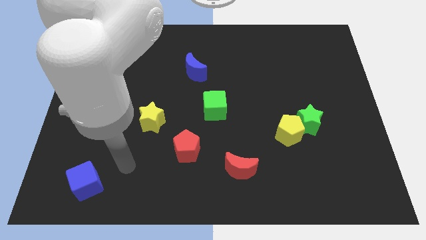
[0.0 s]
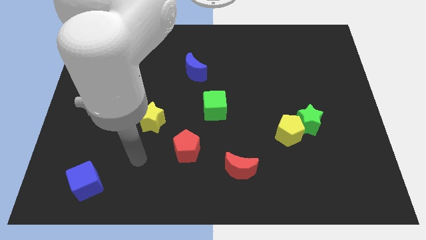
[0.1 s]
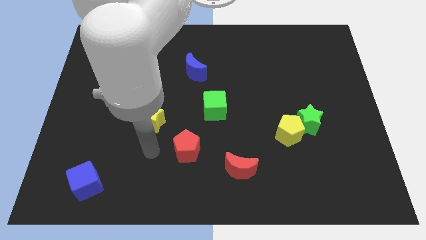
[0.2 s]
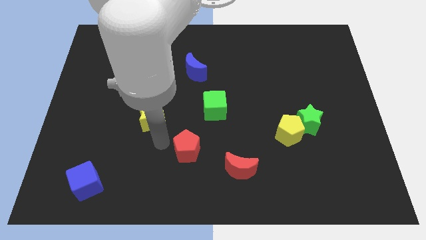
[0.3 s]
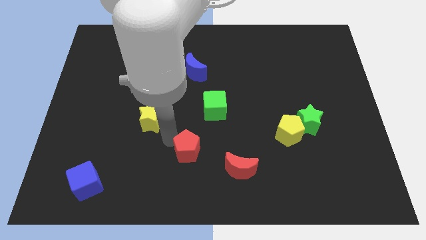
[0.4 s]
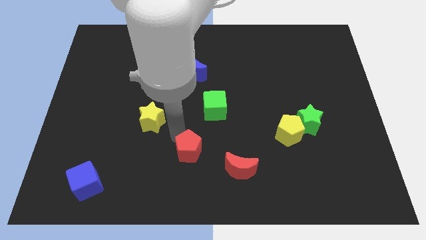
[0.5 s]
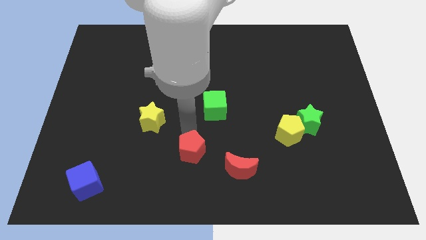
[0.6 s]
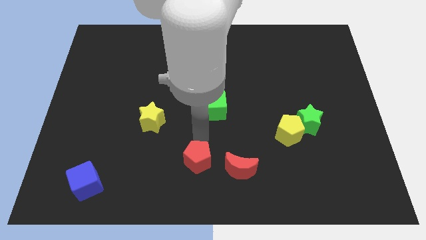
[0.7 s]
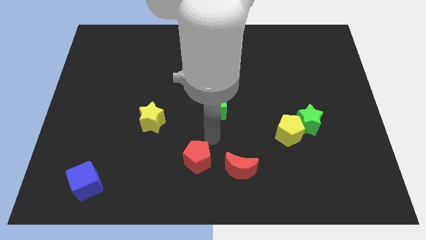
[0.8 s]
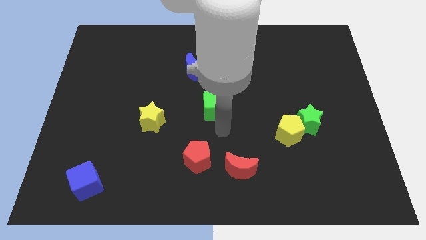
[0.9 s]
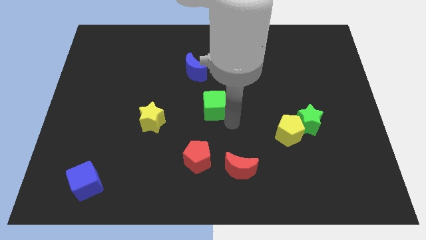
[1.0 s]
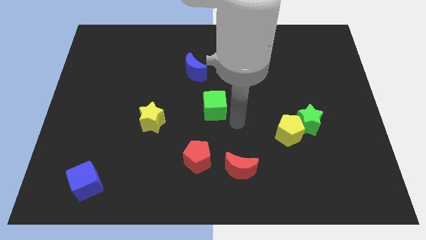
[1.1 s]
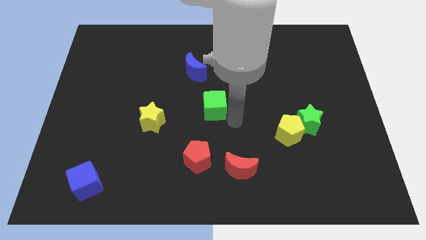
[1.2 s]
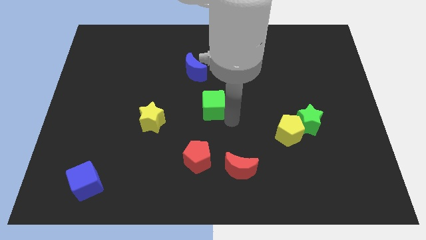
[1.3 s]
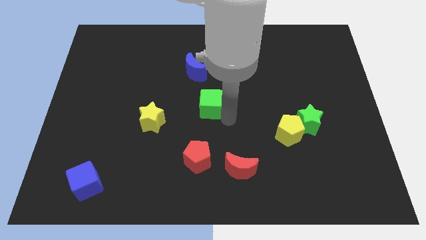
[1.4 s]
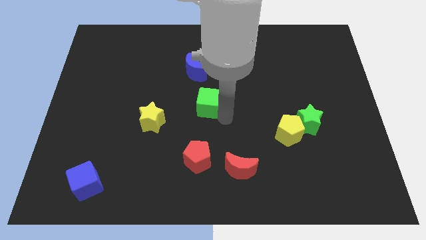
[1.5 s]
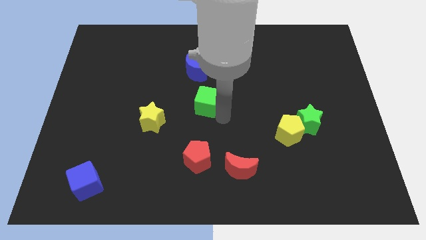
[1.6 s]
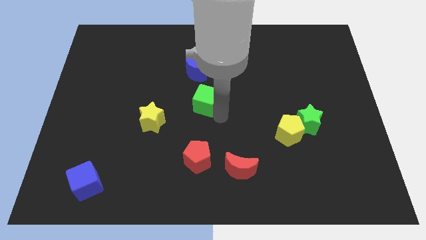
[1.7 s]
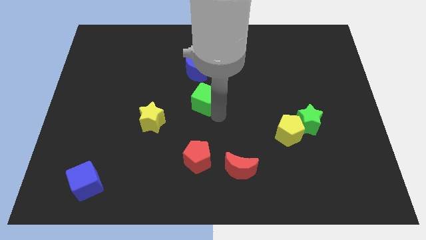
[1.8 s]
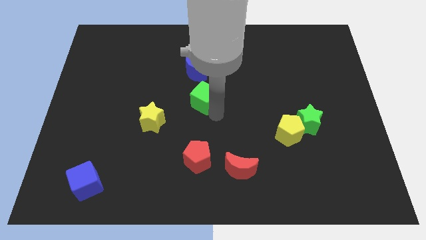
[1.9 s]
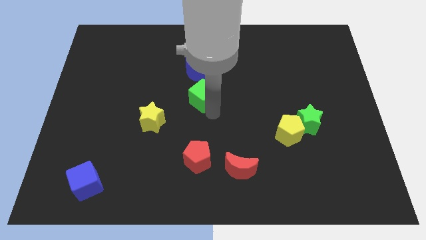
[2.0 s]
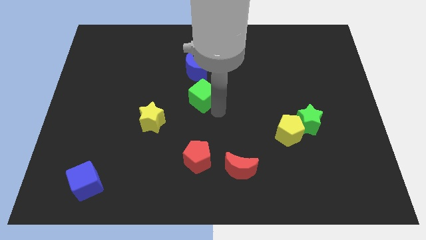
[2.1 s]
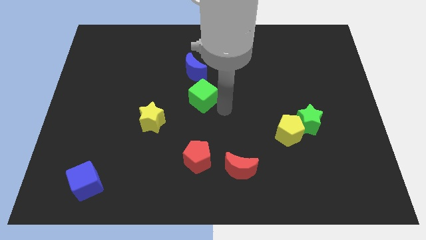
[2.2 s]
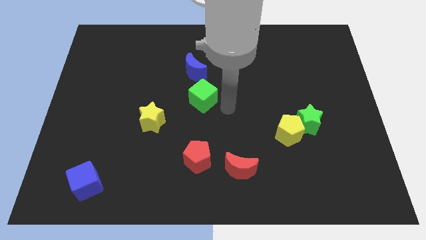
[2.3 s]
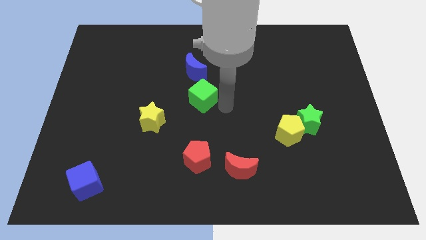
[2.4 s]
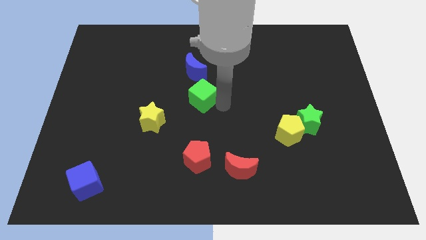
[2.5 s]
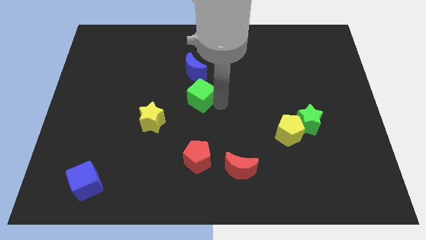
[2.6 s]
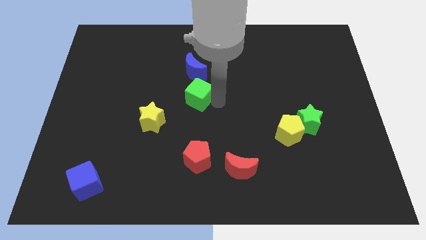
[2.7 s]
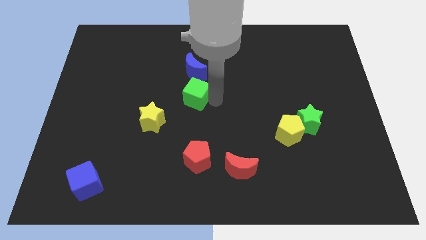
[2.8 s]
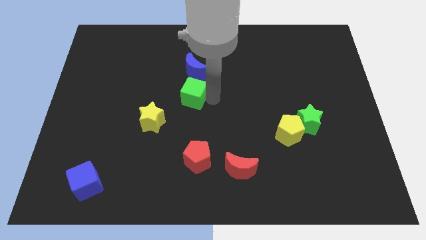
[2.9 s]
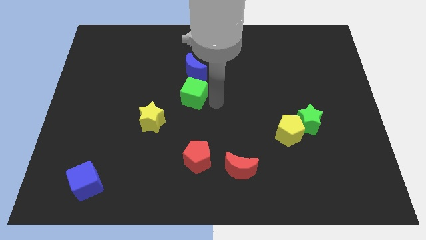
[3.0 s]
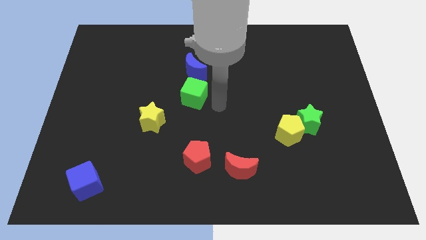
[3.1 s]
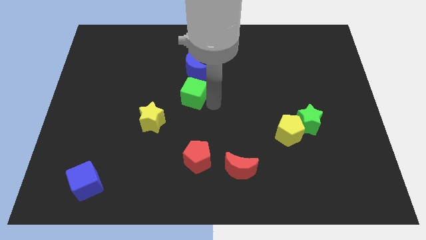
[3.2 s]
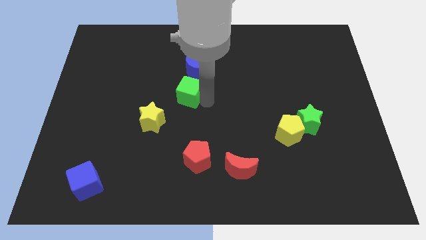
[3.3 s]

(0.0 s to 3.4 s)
push the green cube slightly up and to the left diagonally

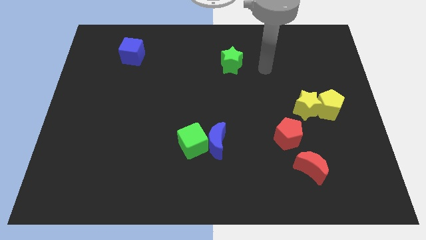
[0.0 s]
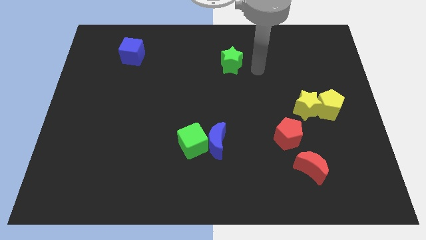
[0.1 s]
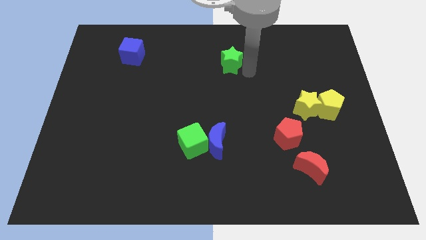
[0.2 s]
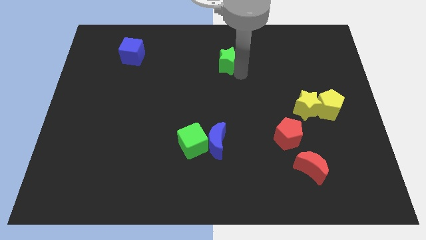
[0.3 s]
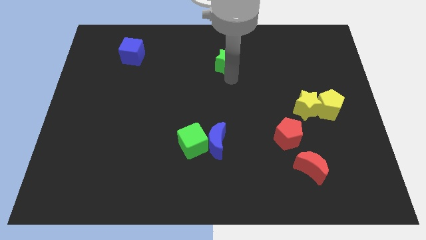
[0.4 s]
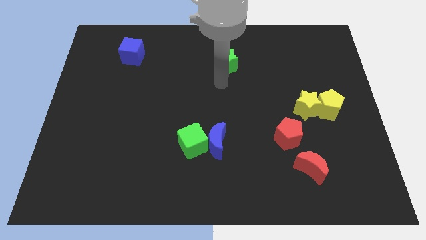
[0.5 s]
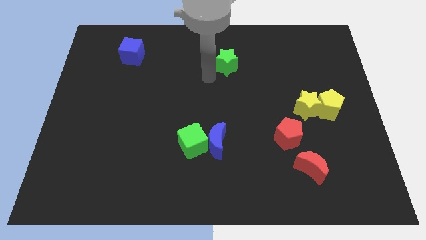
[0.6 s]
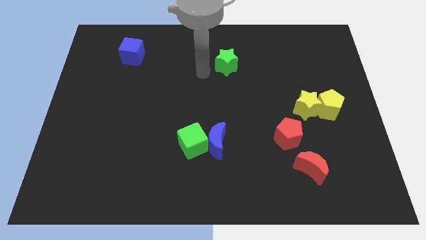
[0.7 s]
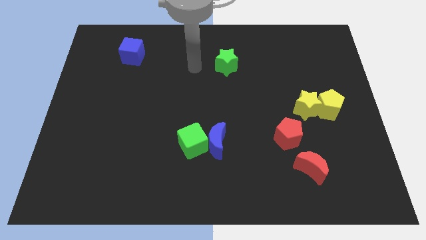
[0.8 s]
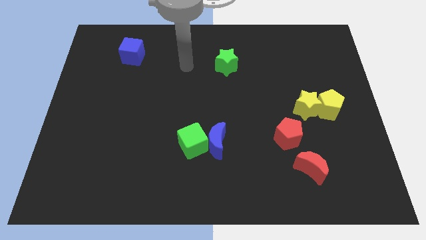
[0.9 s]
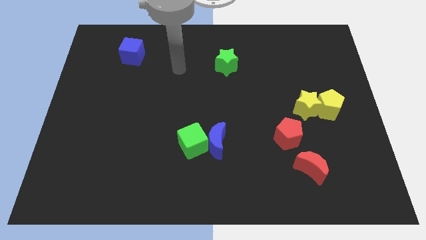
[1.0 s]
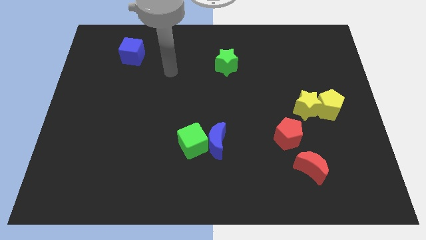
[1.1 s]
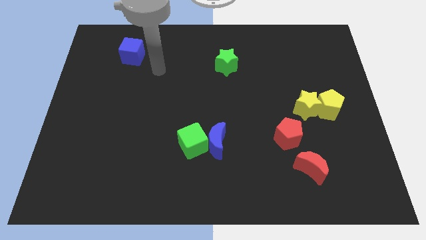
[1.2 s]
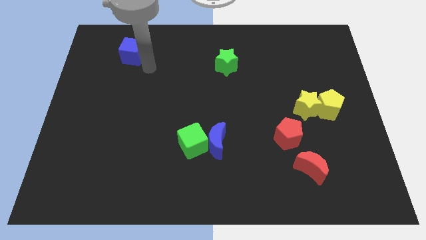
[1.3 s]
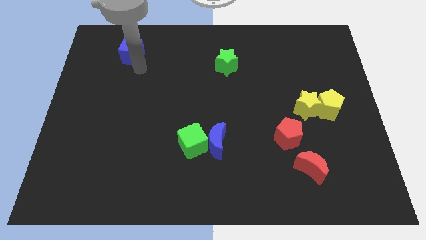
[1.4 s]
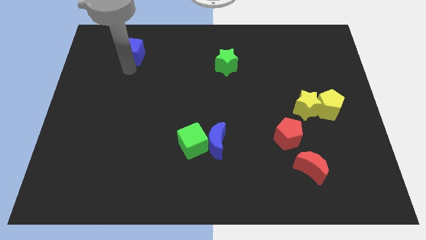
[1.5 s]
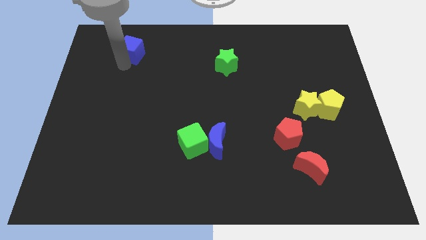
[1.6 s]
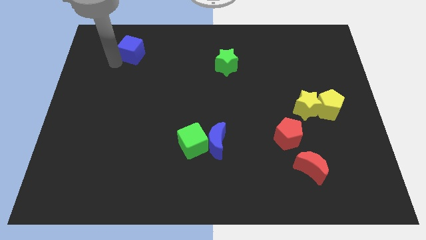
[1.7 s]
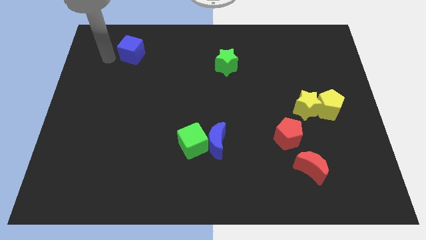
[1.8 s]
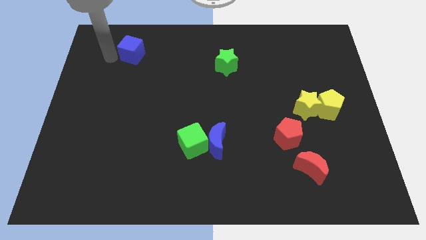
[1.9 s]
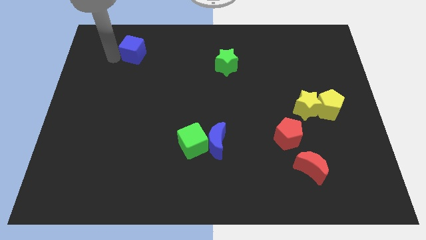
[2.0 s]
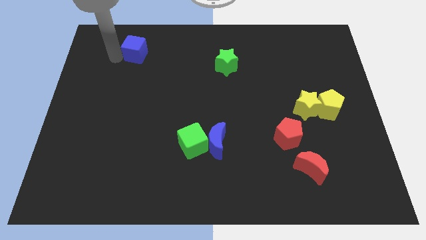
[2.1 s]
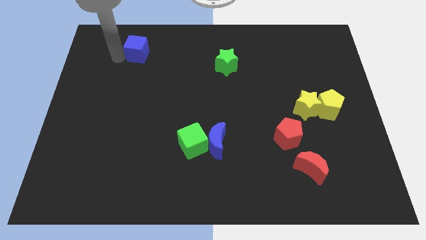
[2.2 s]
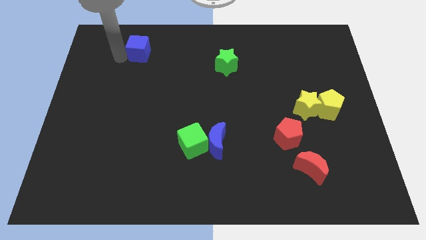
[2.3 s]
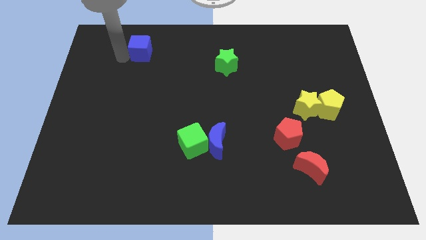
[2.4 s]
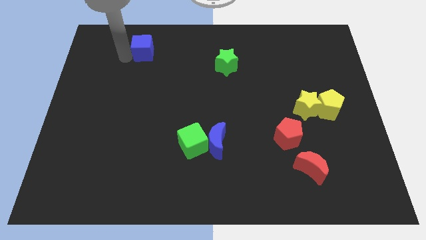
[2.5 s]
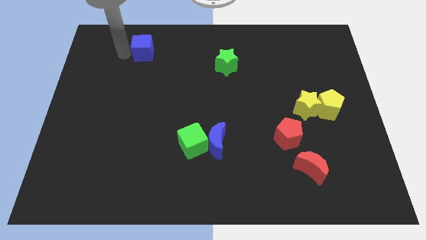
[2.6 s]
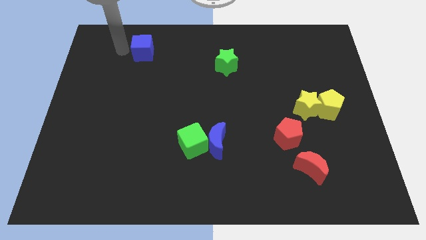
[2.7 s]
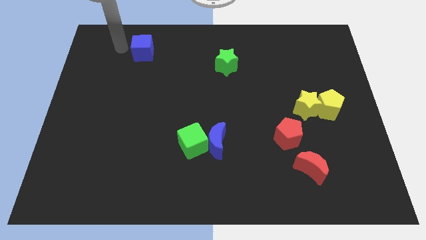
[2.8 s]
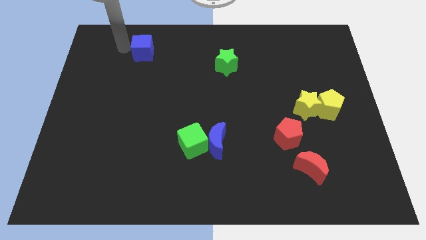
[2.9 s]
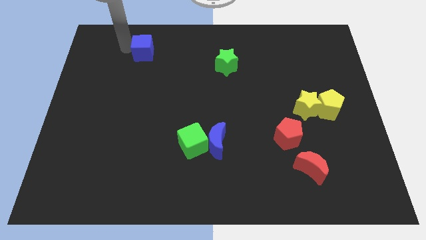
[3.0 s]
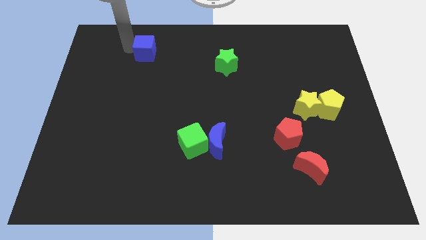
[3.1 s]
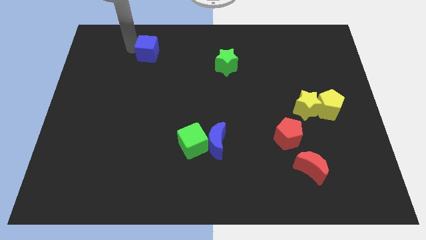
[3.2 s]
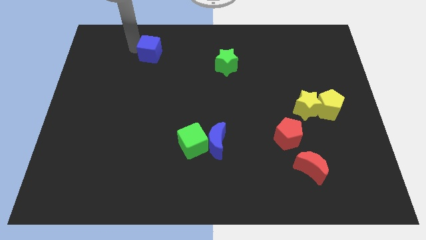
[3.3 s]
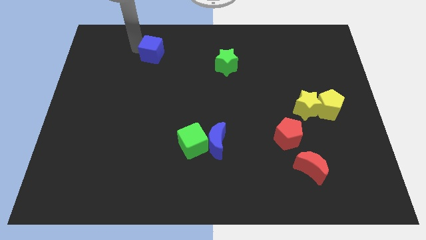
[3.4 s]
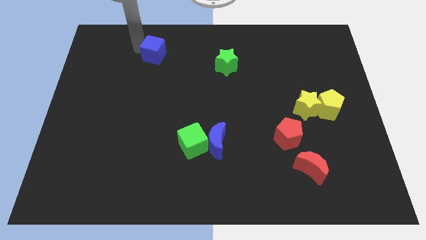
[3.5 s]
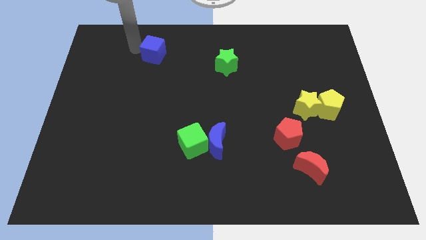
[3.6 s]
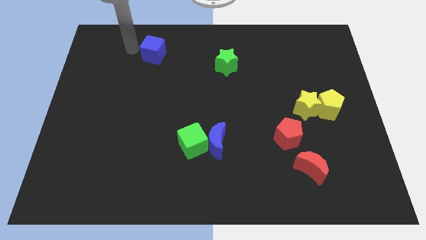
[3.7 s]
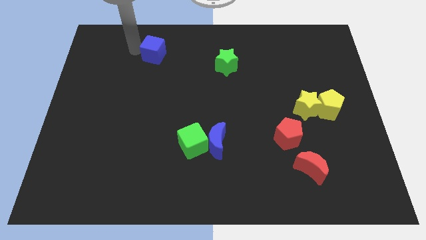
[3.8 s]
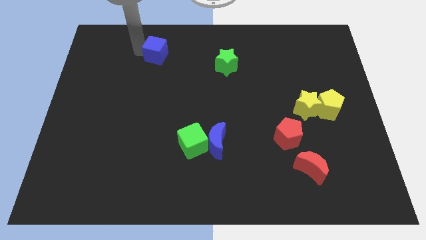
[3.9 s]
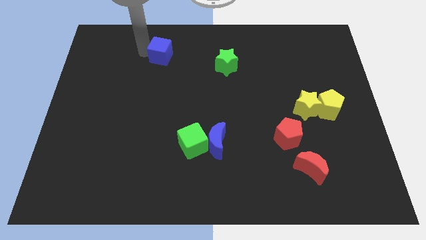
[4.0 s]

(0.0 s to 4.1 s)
move the blue cube a little to the right

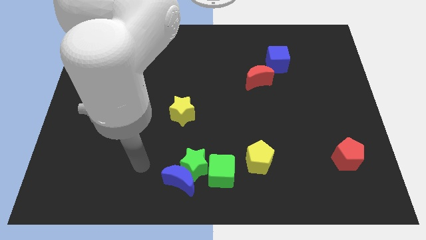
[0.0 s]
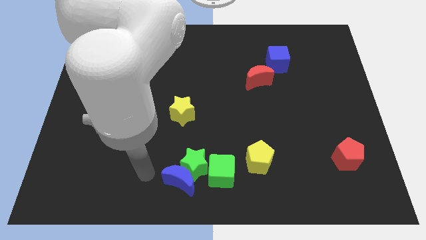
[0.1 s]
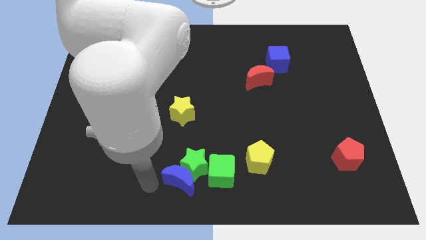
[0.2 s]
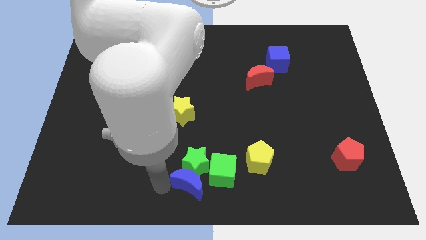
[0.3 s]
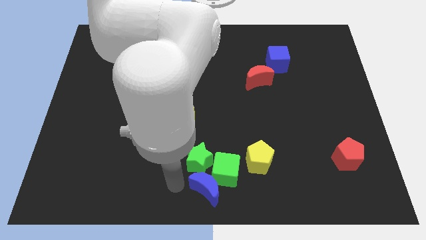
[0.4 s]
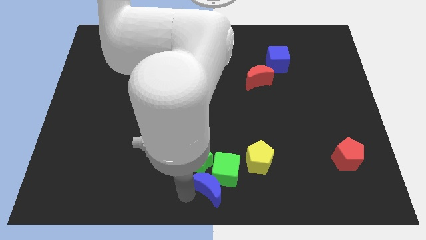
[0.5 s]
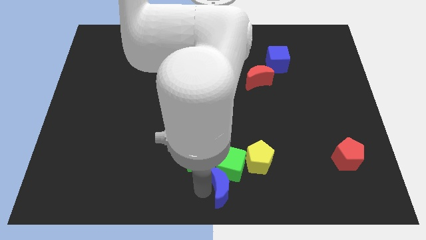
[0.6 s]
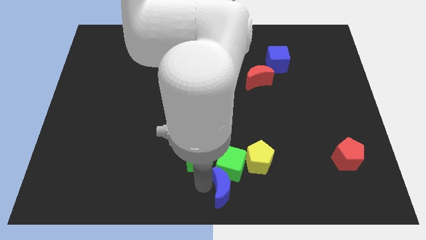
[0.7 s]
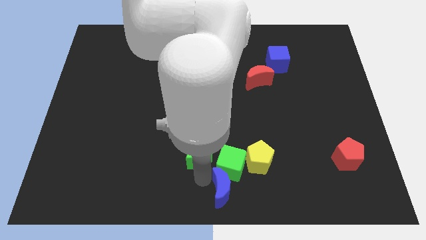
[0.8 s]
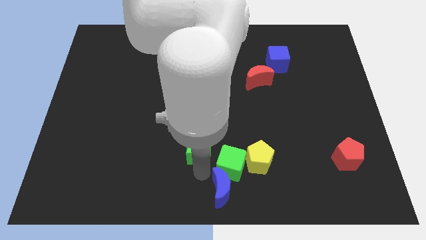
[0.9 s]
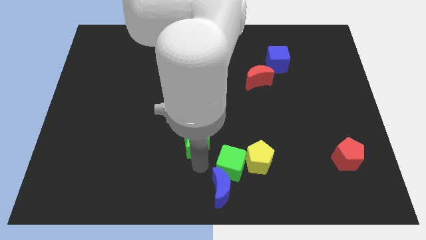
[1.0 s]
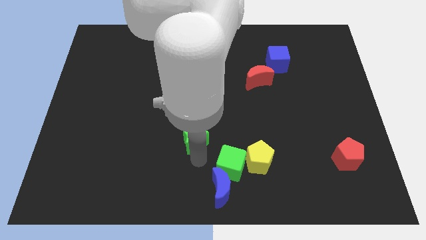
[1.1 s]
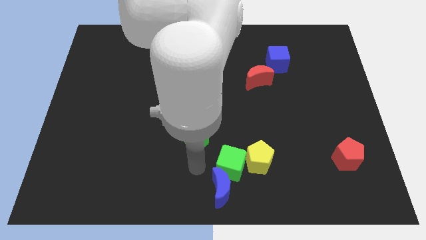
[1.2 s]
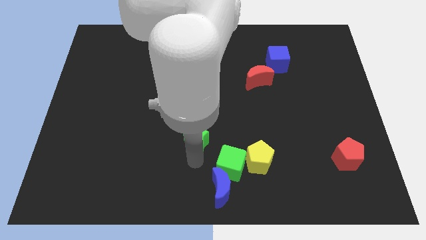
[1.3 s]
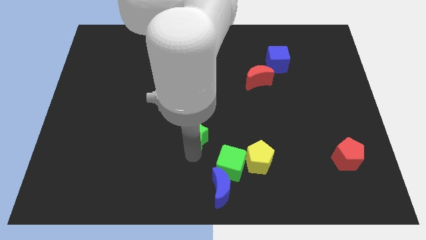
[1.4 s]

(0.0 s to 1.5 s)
slightly slide the green star up
